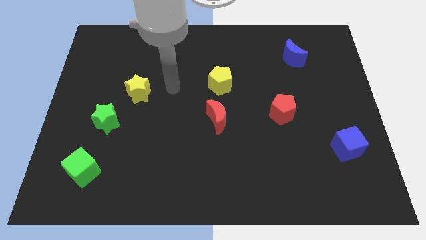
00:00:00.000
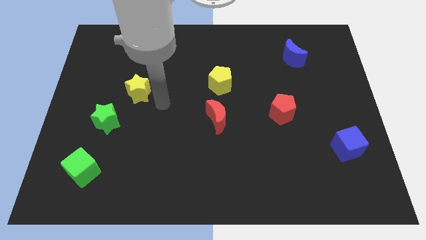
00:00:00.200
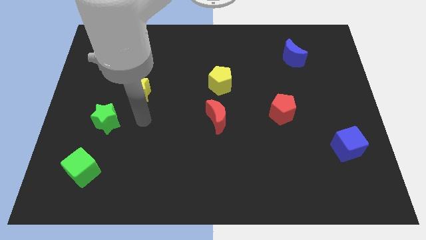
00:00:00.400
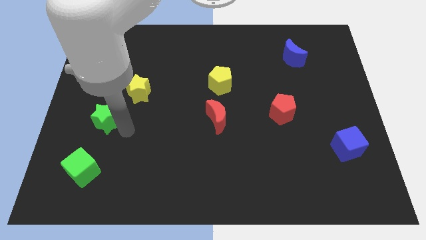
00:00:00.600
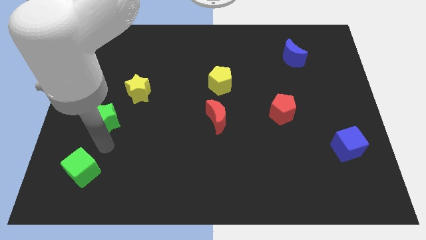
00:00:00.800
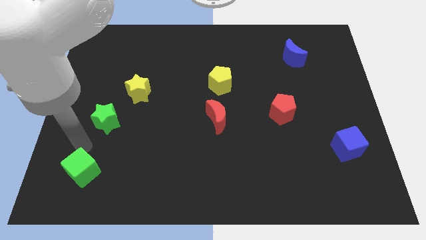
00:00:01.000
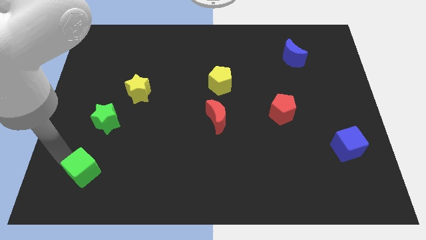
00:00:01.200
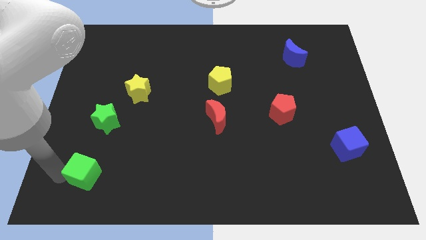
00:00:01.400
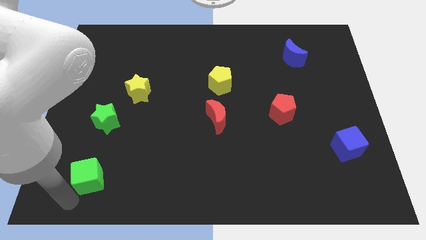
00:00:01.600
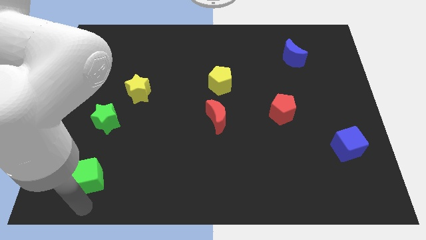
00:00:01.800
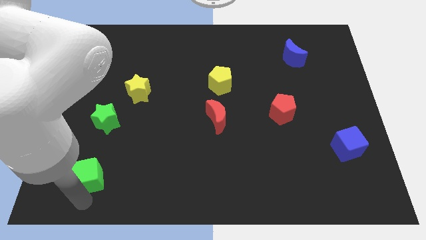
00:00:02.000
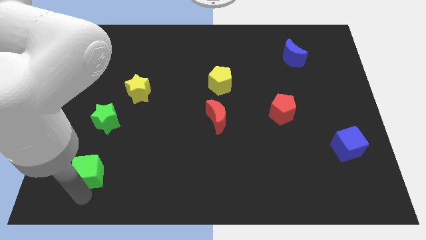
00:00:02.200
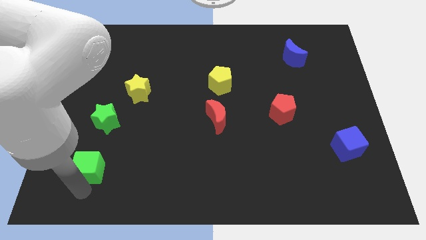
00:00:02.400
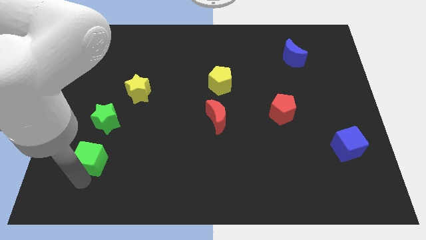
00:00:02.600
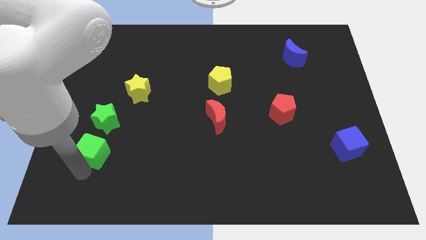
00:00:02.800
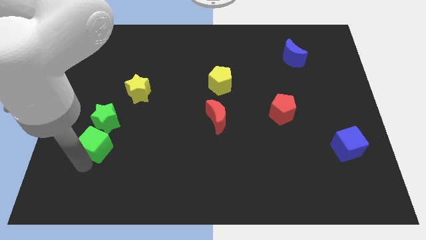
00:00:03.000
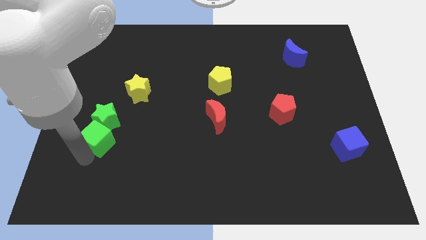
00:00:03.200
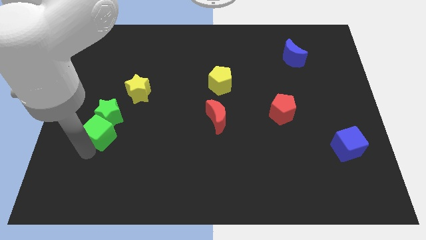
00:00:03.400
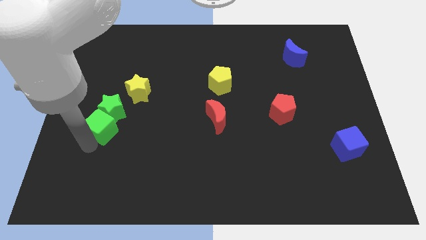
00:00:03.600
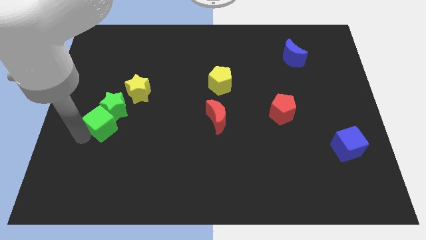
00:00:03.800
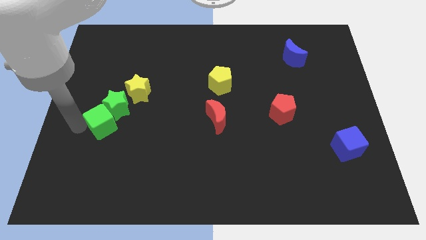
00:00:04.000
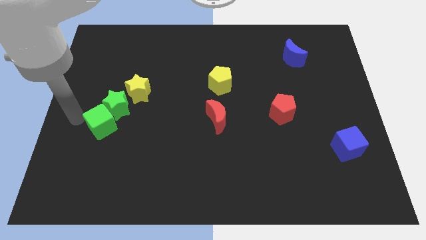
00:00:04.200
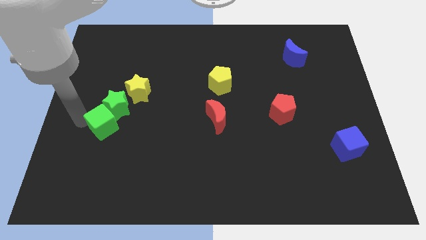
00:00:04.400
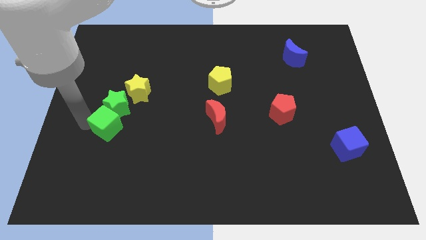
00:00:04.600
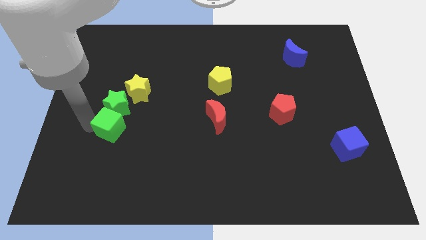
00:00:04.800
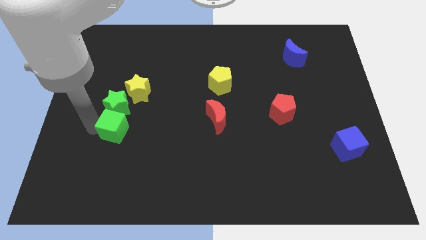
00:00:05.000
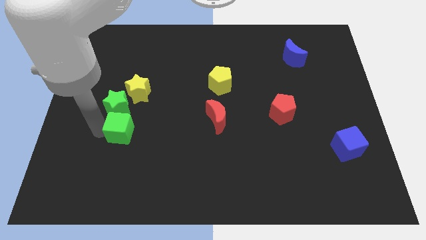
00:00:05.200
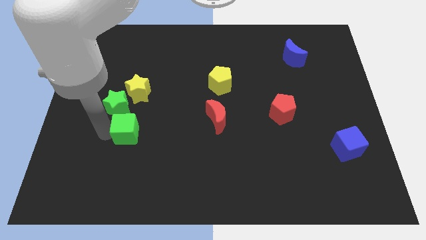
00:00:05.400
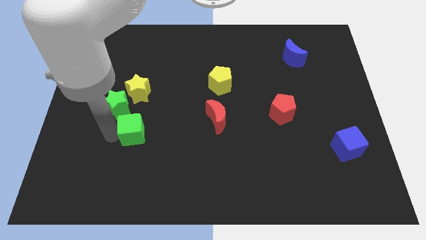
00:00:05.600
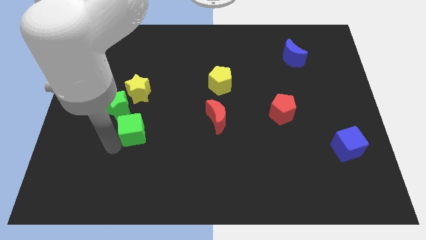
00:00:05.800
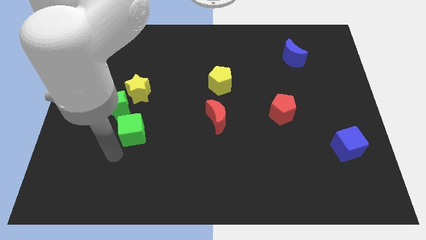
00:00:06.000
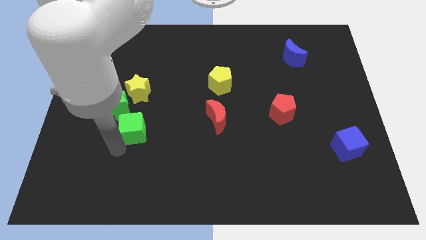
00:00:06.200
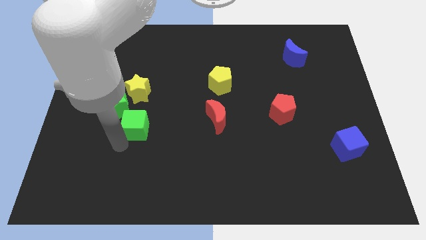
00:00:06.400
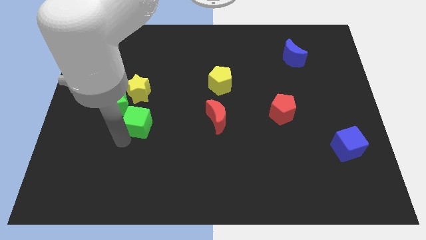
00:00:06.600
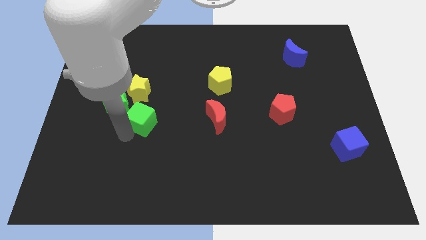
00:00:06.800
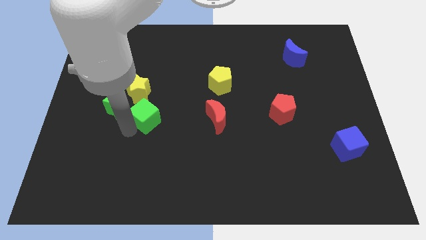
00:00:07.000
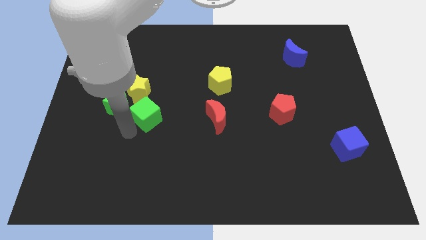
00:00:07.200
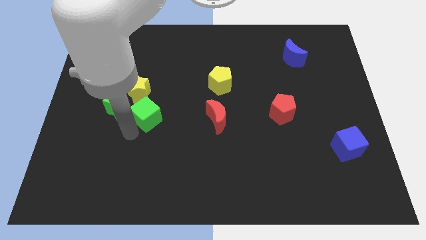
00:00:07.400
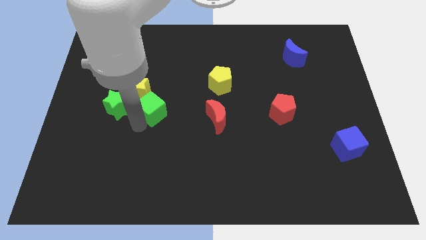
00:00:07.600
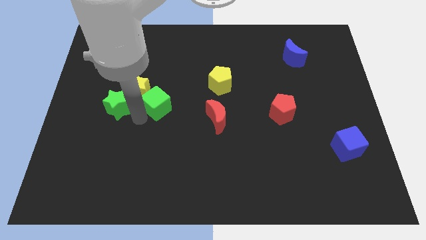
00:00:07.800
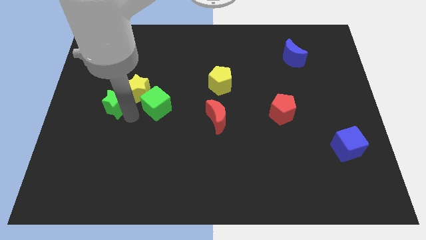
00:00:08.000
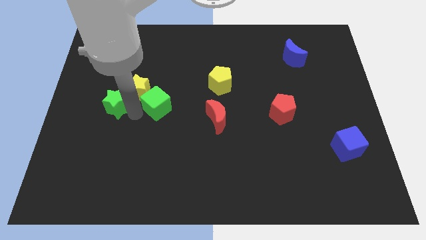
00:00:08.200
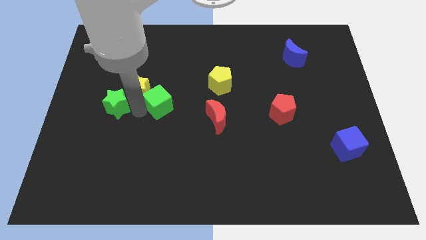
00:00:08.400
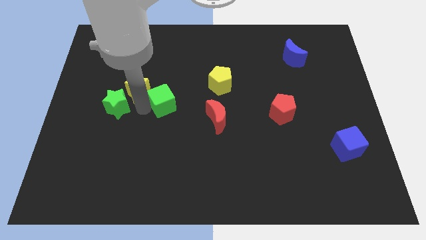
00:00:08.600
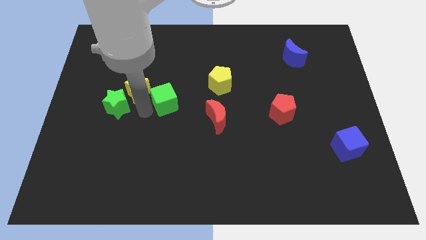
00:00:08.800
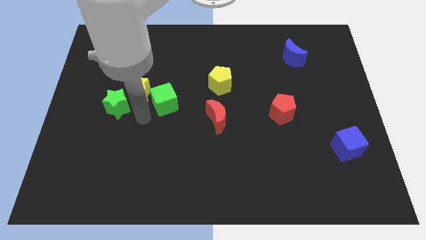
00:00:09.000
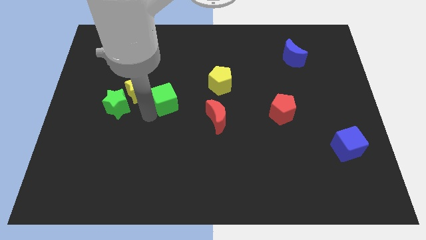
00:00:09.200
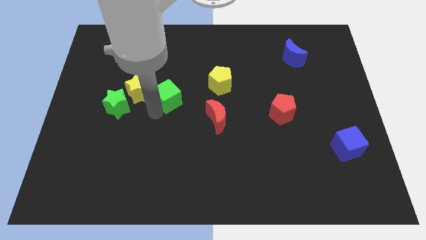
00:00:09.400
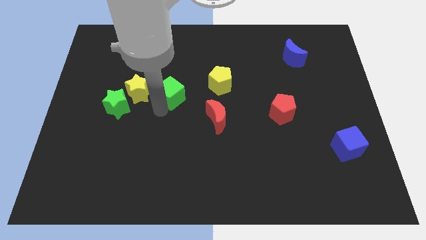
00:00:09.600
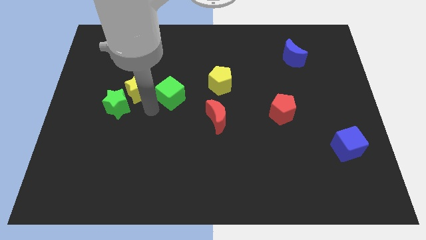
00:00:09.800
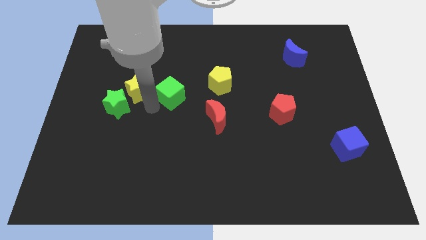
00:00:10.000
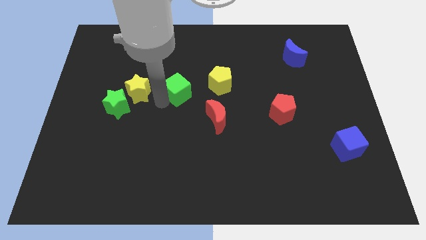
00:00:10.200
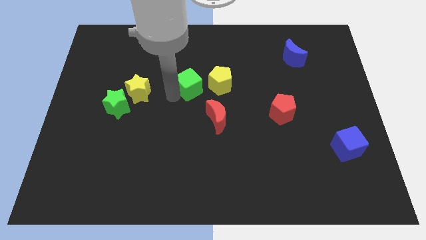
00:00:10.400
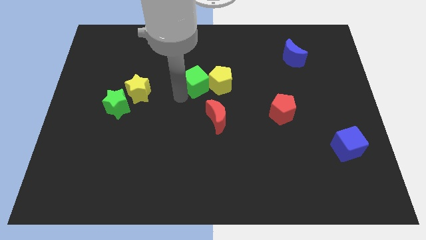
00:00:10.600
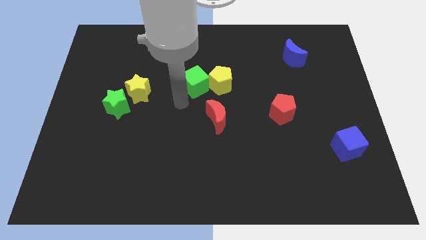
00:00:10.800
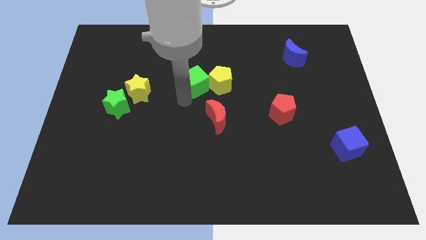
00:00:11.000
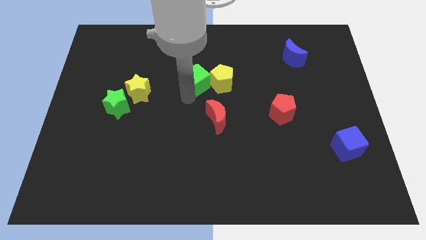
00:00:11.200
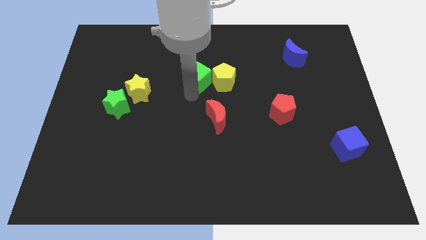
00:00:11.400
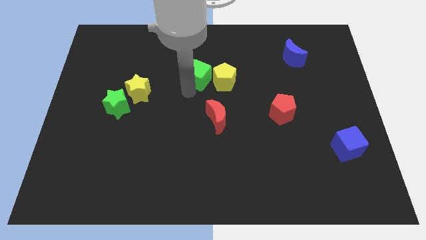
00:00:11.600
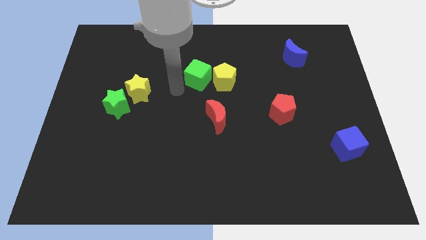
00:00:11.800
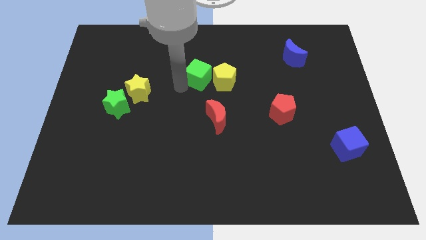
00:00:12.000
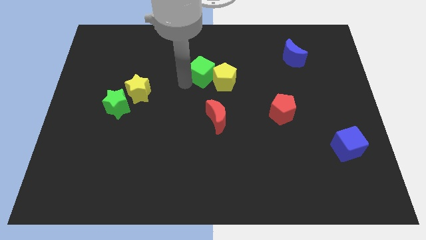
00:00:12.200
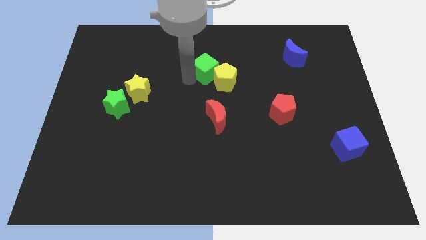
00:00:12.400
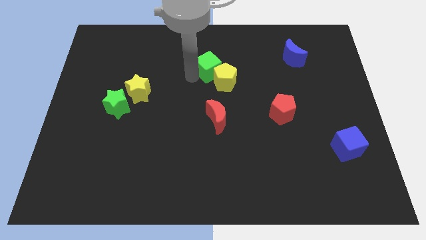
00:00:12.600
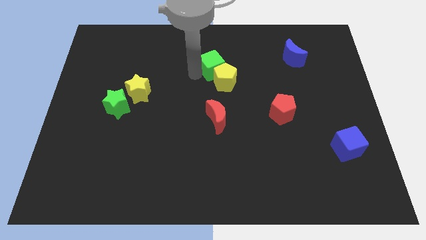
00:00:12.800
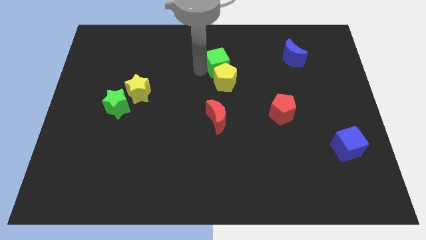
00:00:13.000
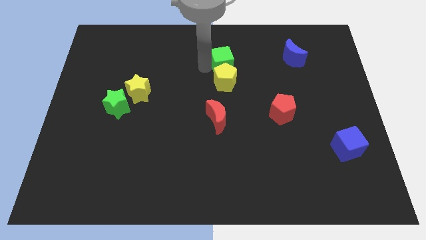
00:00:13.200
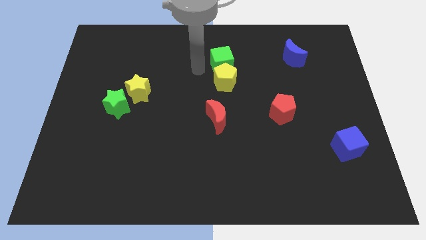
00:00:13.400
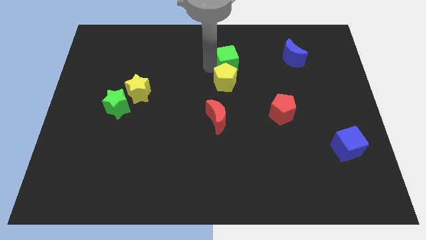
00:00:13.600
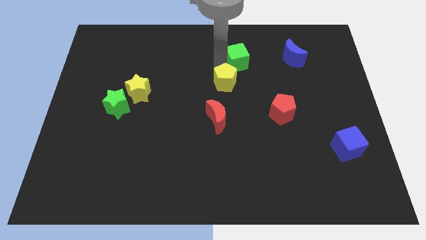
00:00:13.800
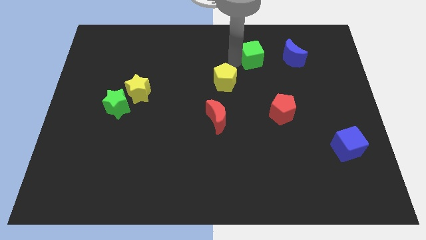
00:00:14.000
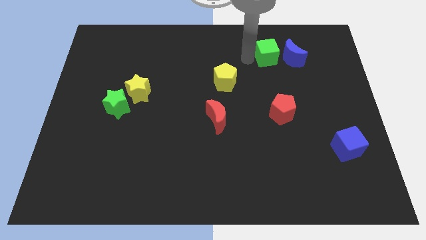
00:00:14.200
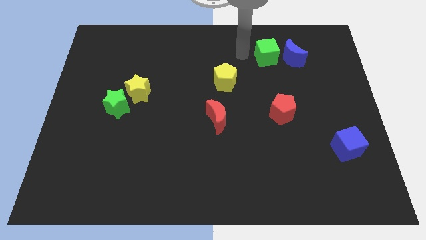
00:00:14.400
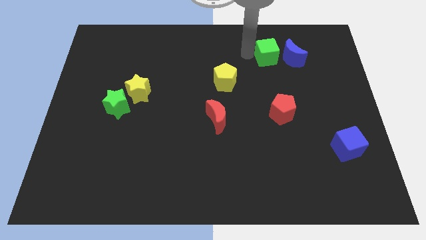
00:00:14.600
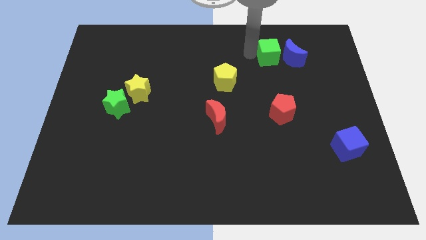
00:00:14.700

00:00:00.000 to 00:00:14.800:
push the green cube close to the blue moon
